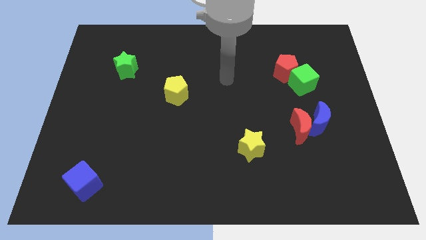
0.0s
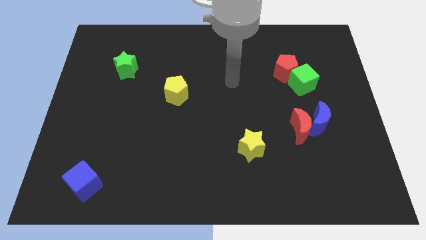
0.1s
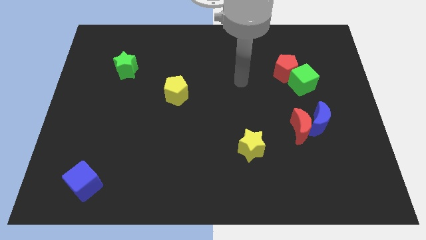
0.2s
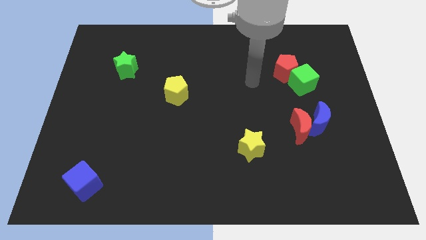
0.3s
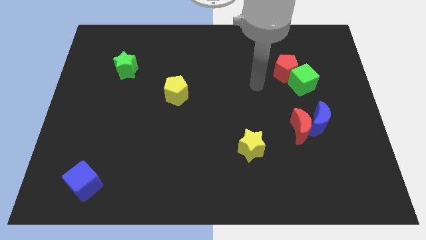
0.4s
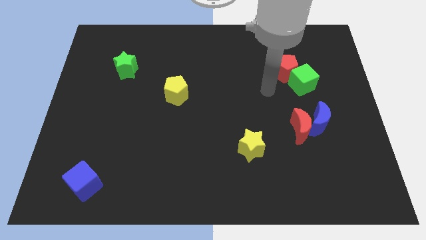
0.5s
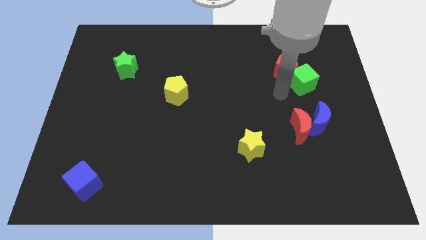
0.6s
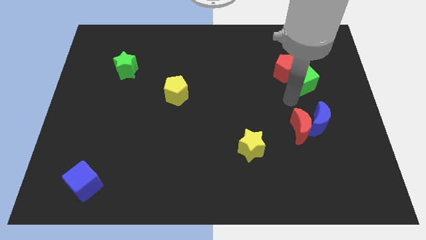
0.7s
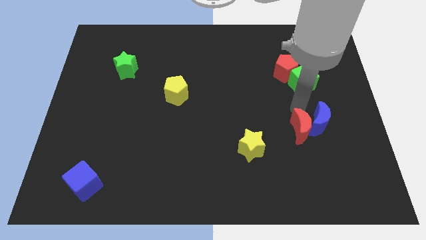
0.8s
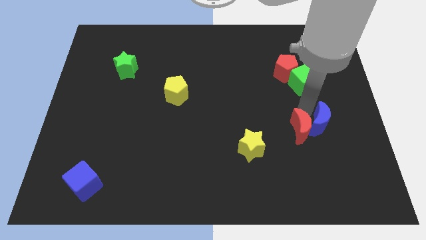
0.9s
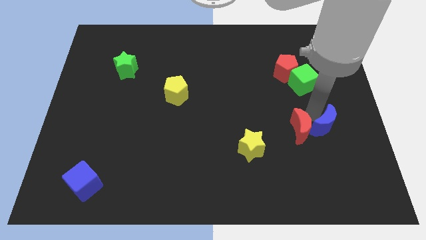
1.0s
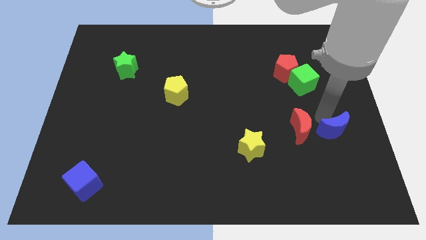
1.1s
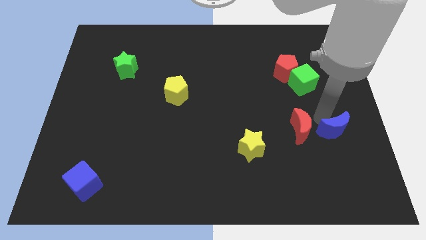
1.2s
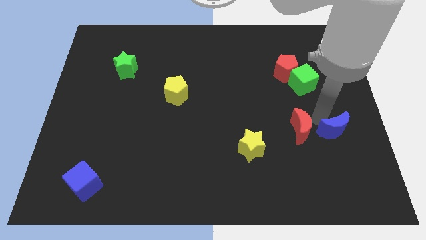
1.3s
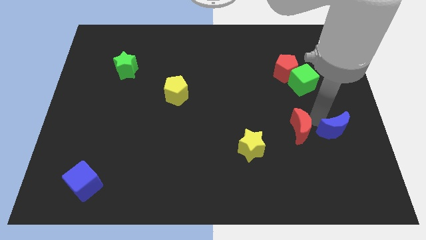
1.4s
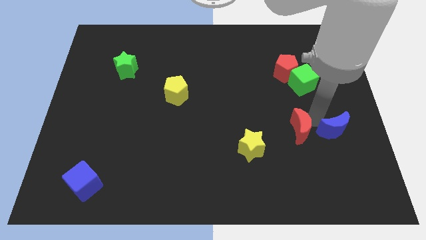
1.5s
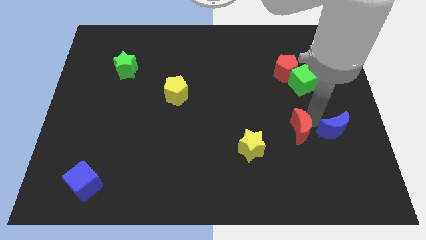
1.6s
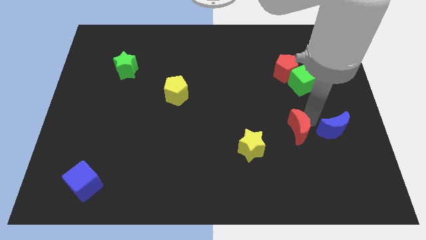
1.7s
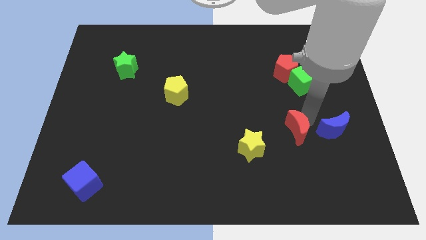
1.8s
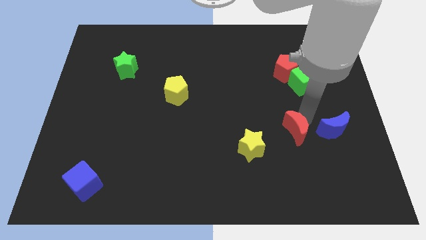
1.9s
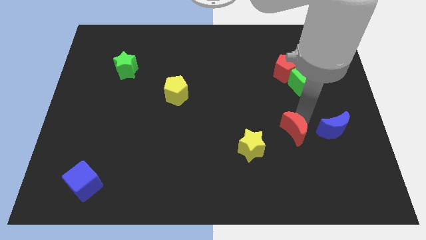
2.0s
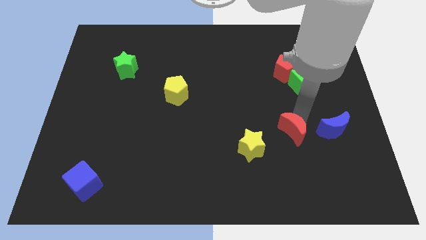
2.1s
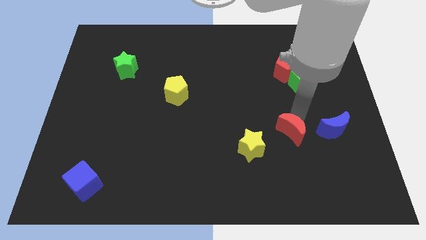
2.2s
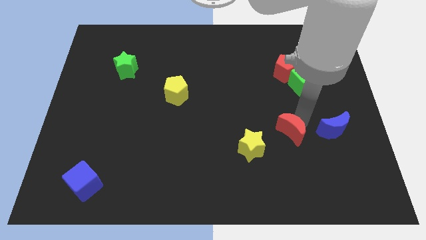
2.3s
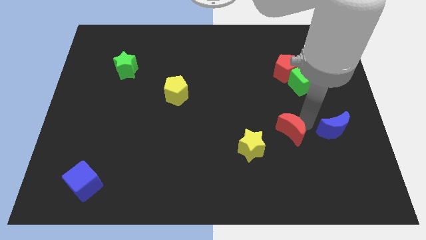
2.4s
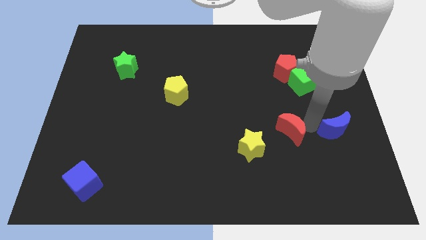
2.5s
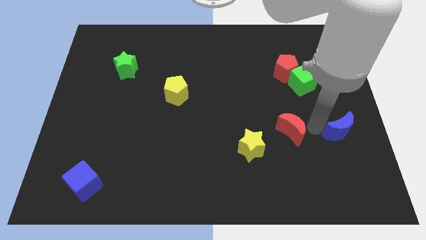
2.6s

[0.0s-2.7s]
separate the red moon from the blue moon

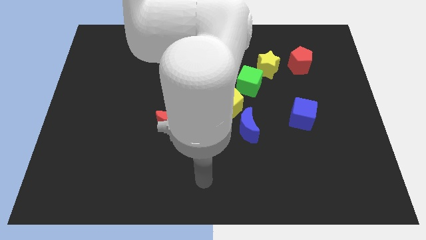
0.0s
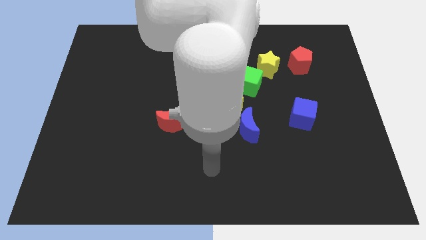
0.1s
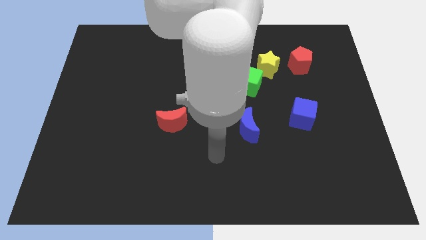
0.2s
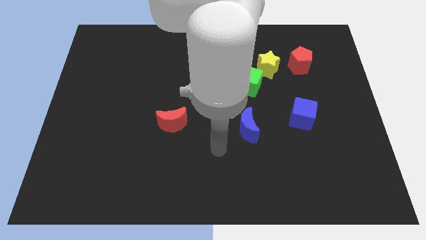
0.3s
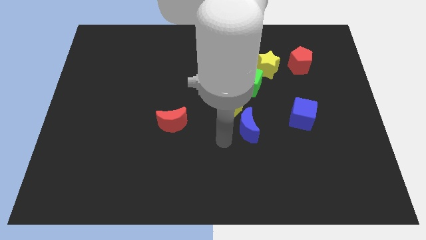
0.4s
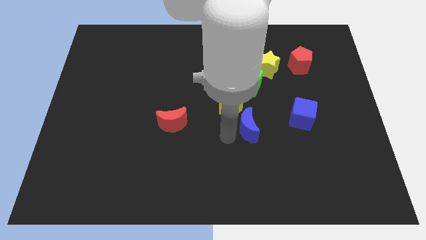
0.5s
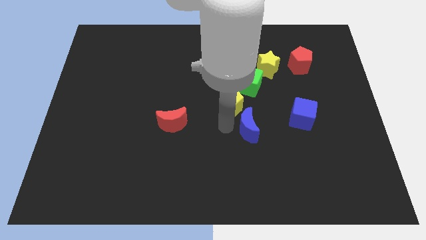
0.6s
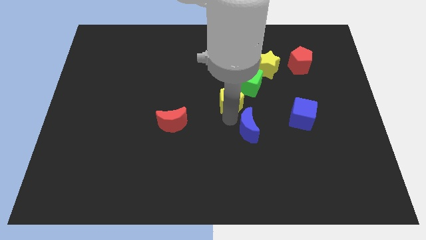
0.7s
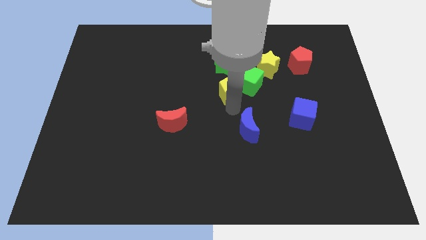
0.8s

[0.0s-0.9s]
separate the blue moon from the yellow pentagon

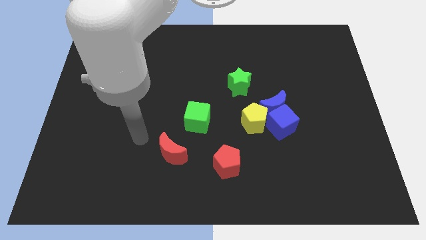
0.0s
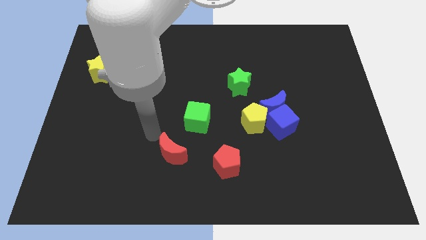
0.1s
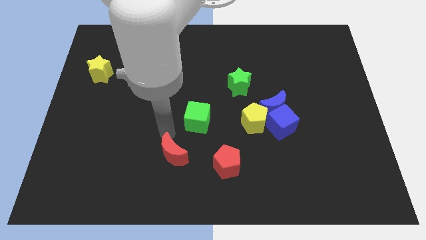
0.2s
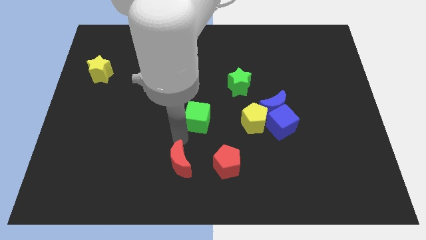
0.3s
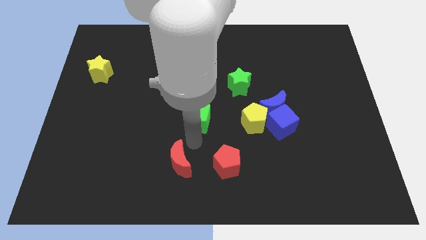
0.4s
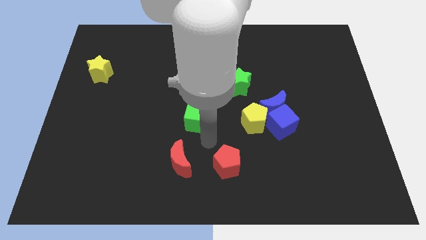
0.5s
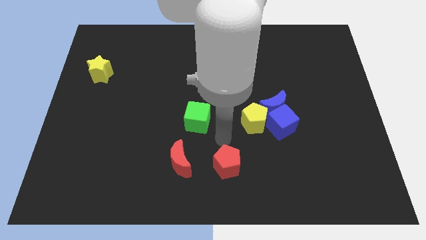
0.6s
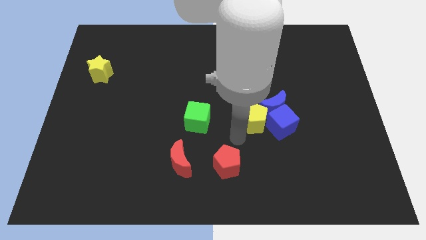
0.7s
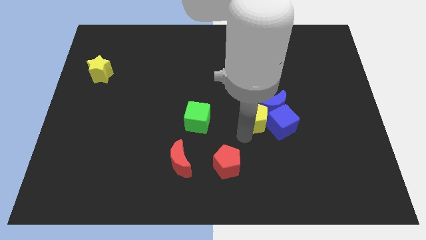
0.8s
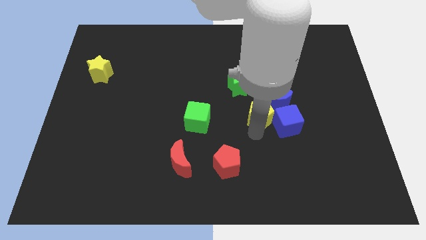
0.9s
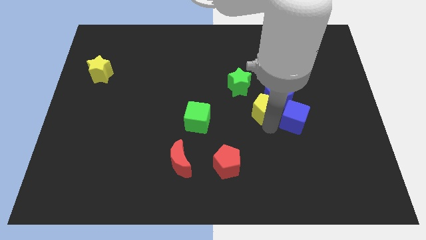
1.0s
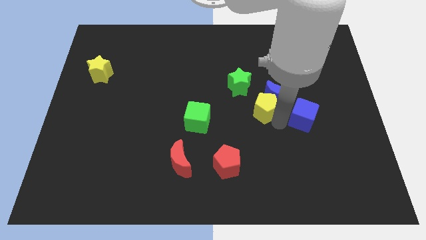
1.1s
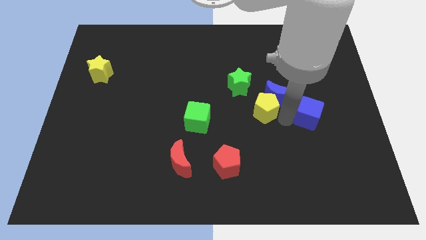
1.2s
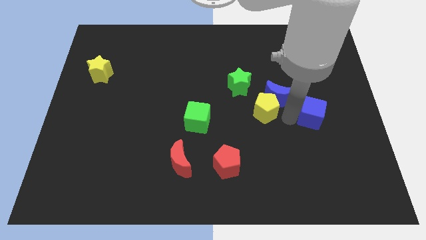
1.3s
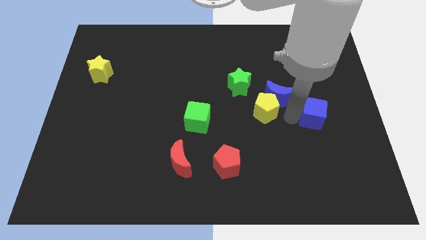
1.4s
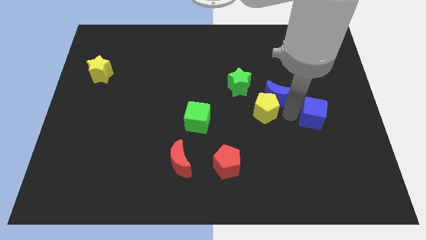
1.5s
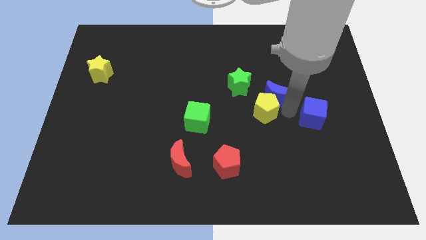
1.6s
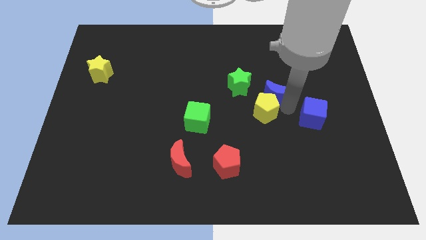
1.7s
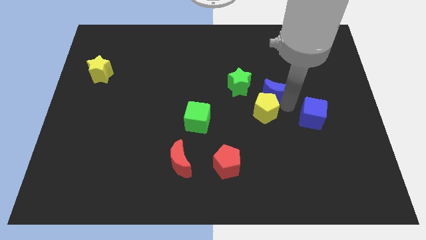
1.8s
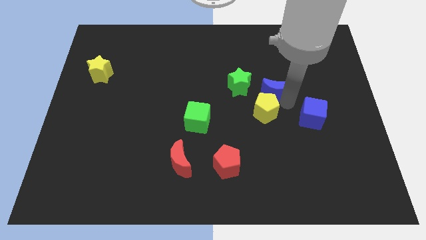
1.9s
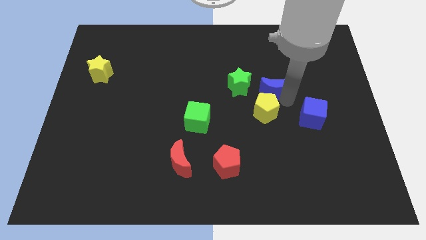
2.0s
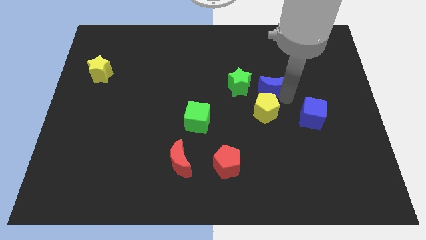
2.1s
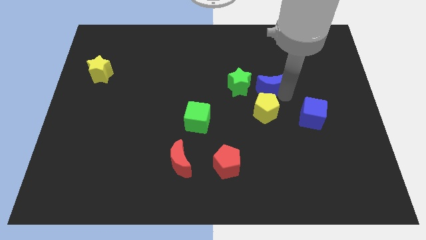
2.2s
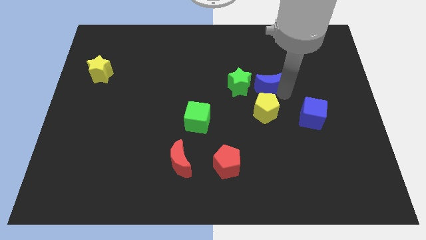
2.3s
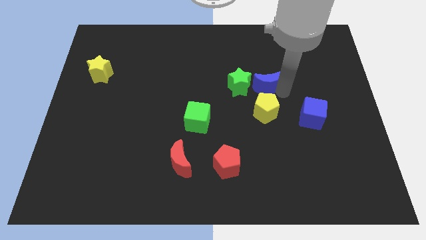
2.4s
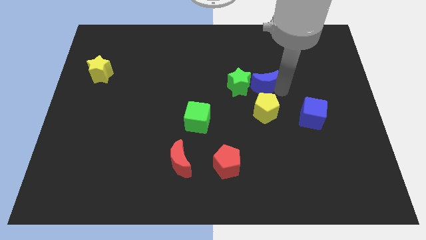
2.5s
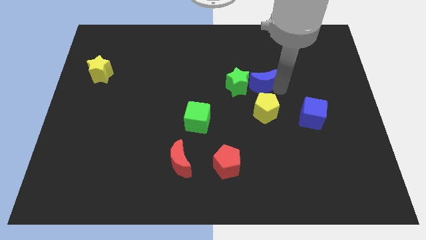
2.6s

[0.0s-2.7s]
move the blue moon away from the blue cube and yellow pentagon

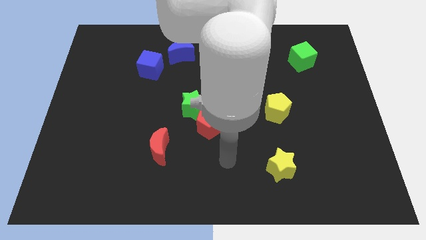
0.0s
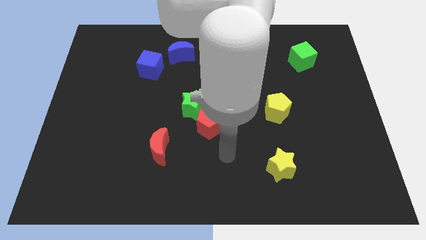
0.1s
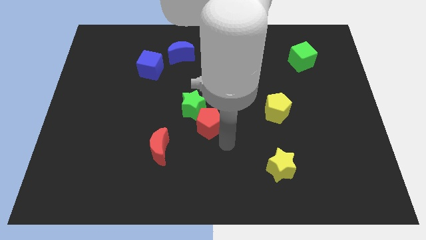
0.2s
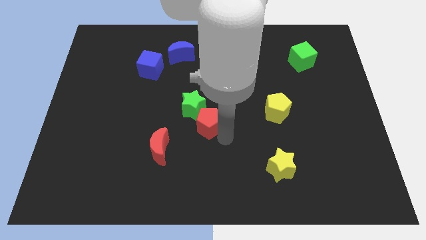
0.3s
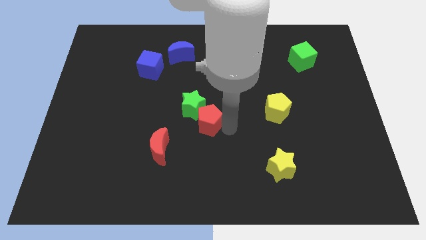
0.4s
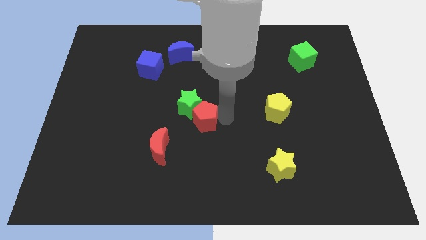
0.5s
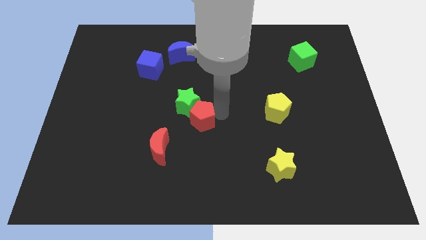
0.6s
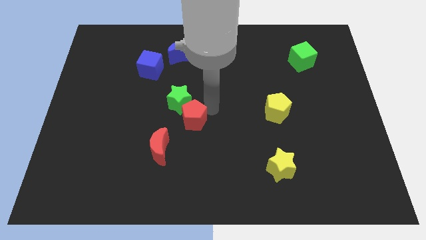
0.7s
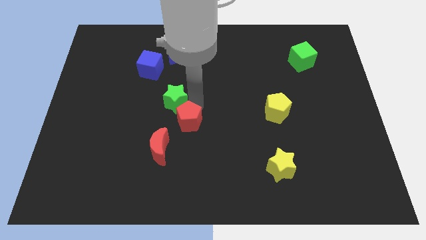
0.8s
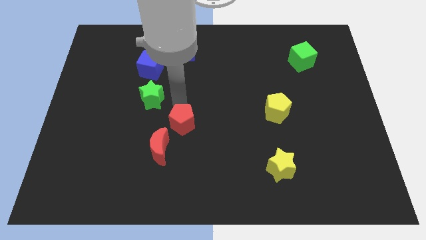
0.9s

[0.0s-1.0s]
pull the red pentagon apart from the green star

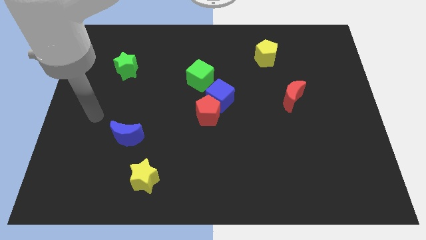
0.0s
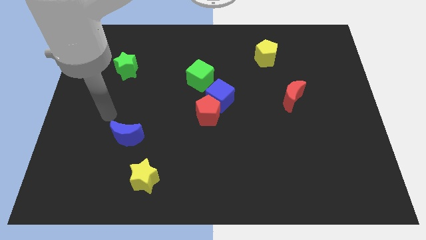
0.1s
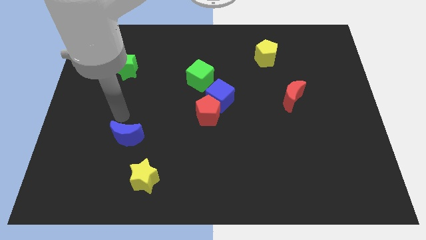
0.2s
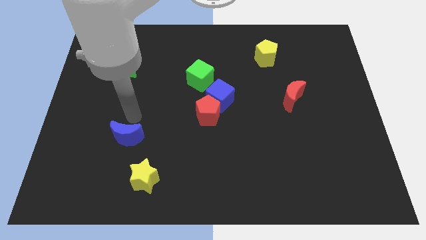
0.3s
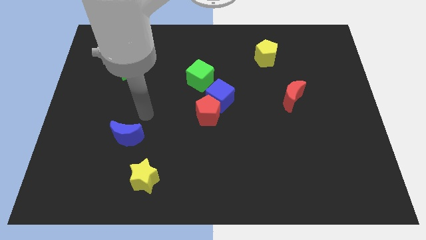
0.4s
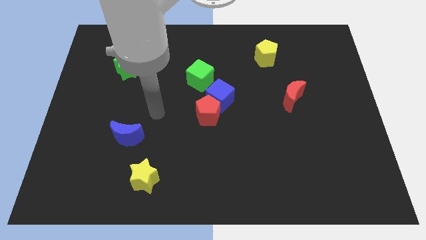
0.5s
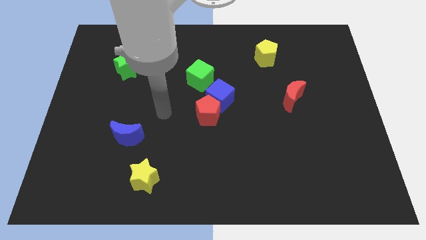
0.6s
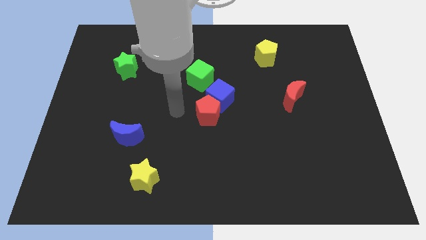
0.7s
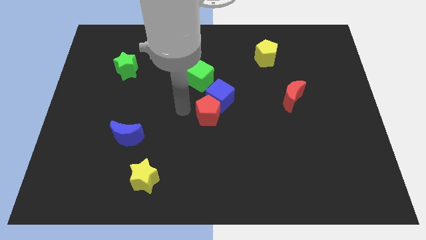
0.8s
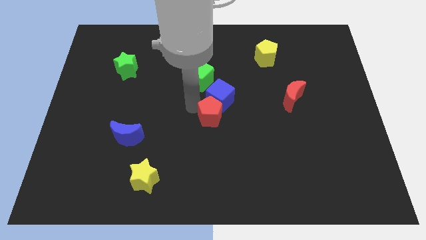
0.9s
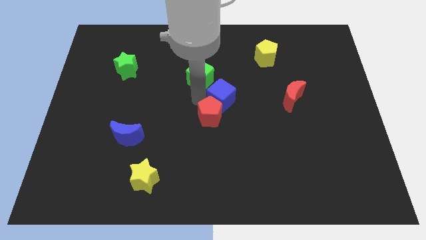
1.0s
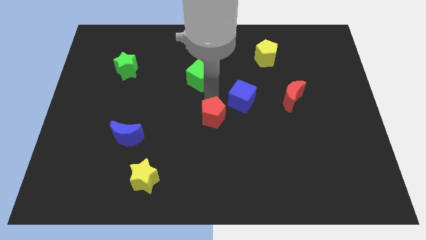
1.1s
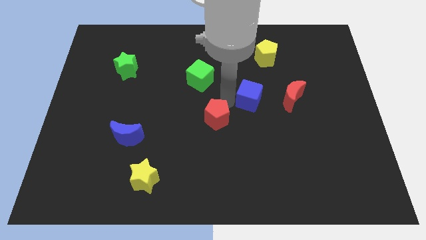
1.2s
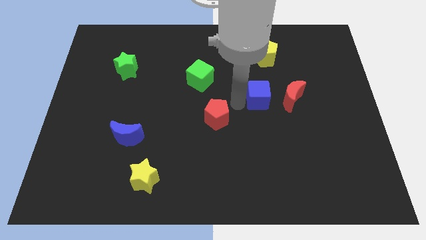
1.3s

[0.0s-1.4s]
pull the red pentagon apart from the blue cube

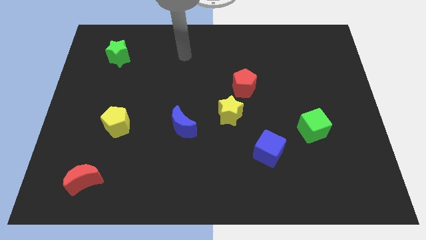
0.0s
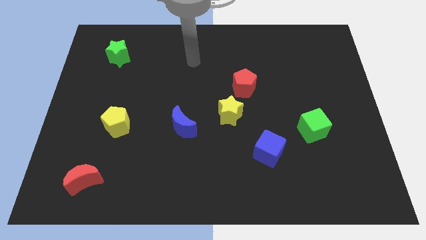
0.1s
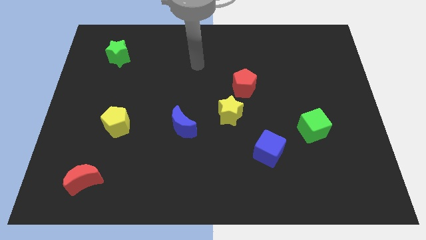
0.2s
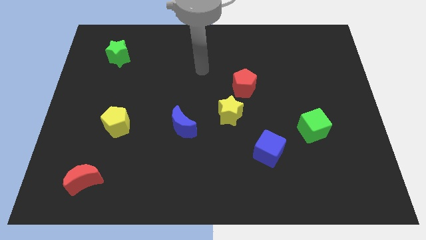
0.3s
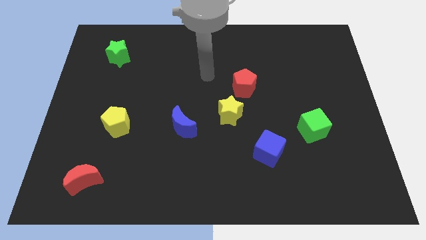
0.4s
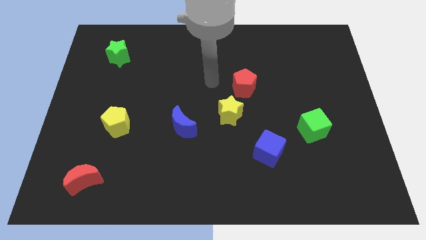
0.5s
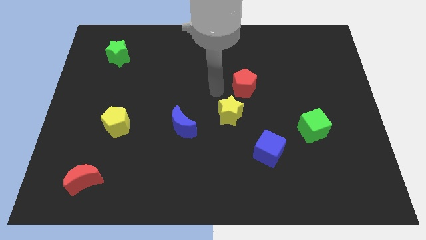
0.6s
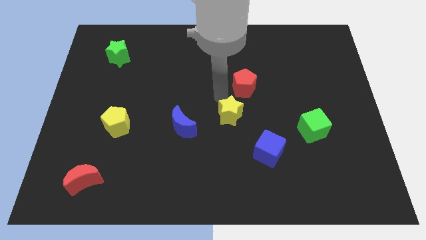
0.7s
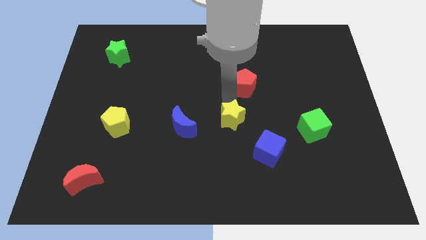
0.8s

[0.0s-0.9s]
separate the red pentagon from the yellow star
